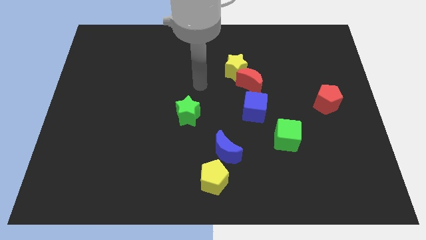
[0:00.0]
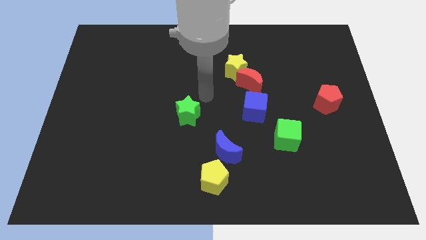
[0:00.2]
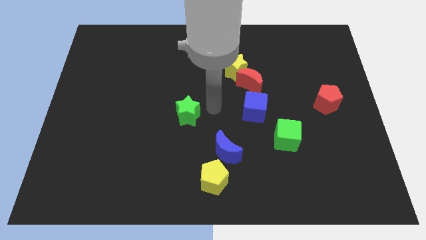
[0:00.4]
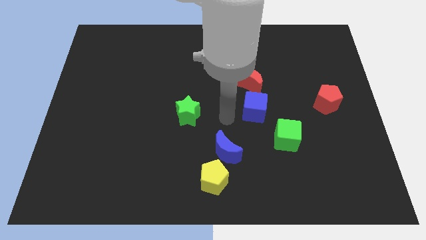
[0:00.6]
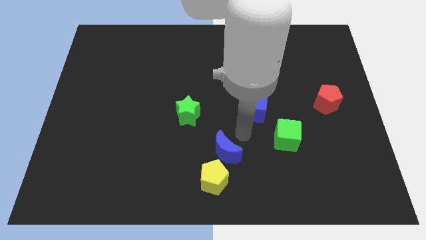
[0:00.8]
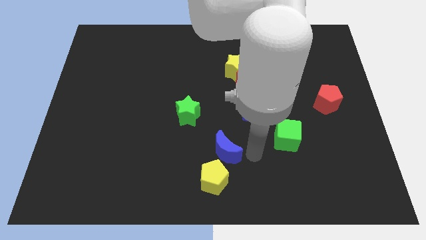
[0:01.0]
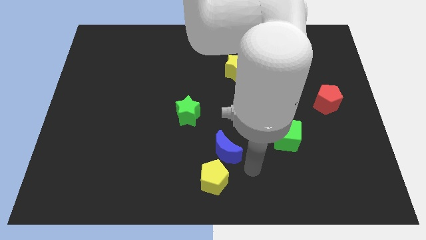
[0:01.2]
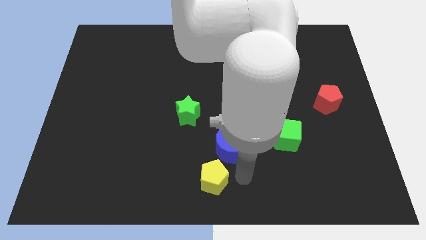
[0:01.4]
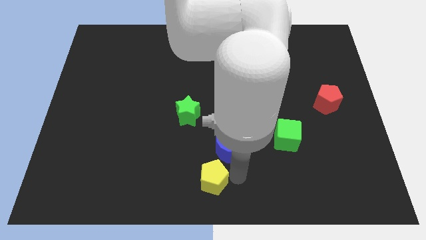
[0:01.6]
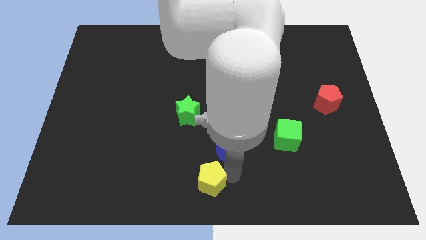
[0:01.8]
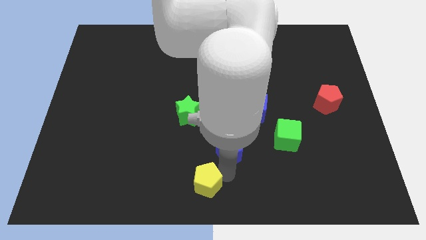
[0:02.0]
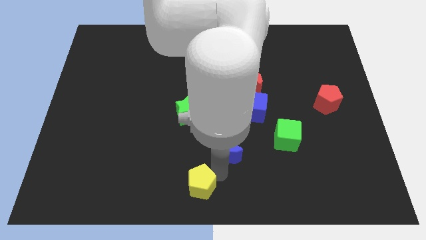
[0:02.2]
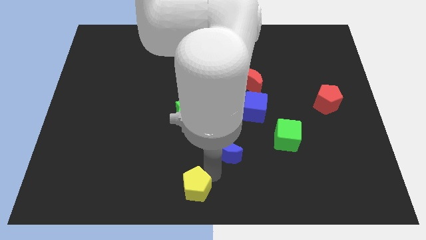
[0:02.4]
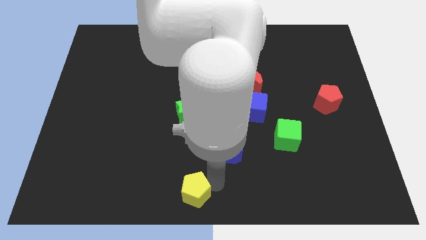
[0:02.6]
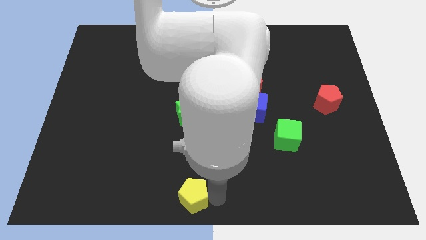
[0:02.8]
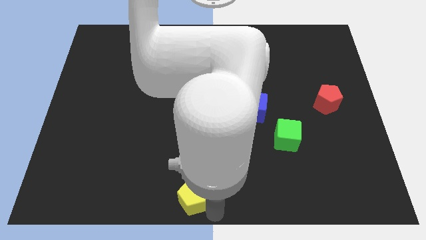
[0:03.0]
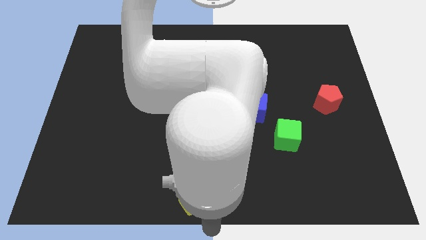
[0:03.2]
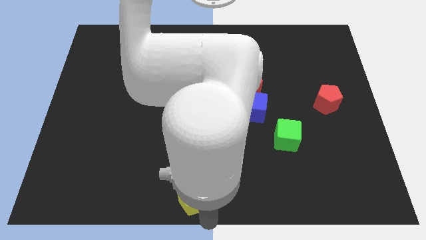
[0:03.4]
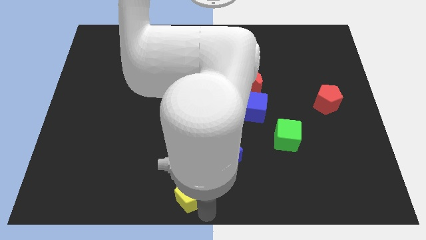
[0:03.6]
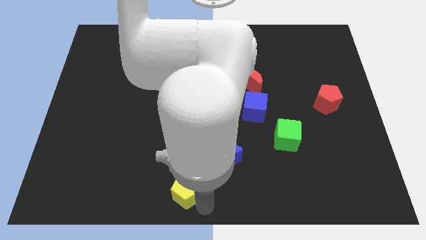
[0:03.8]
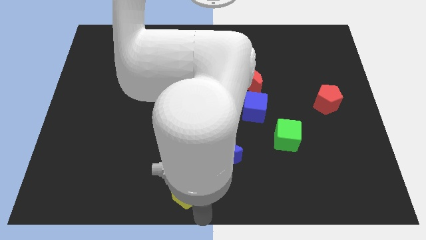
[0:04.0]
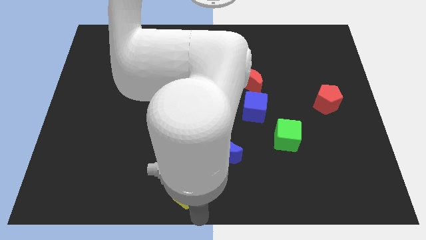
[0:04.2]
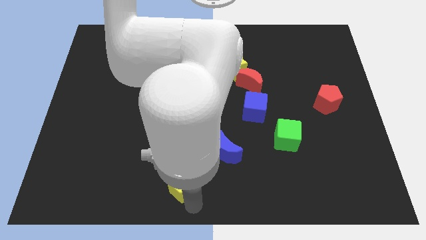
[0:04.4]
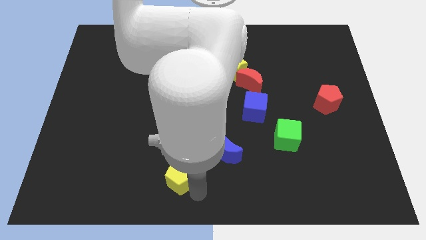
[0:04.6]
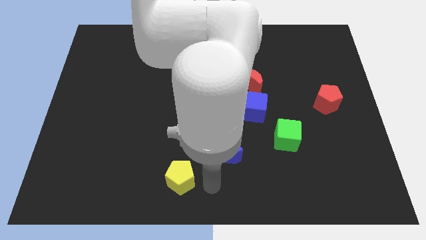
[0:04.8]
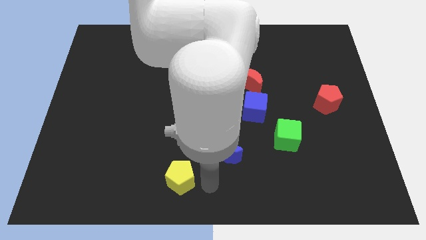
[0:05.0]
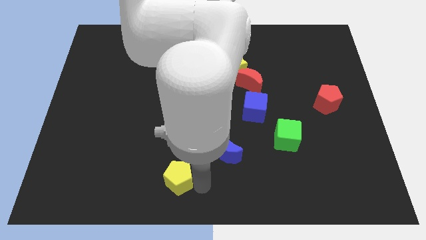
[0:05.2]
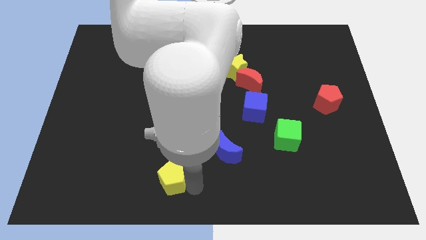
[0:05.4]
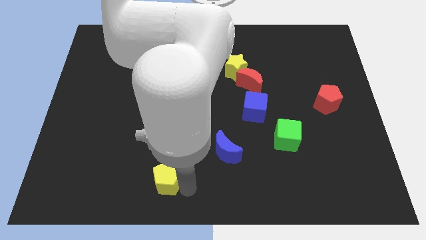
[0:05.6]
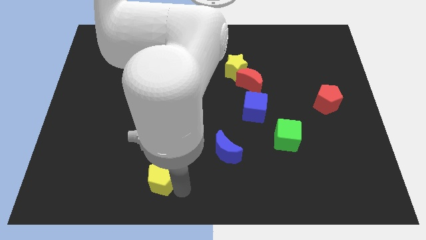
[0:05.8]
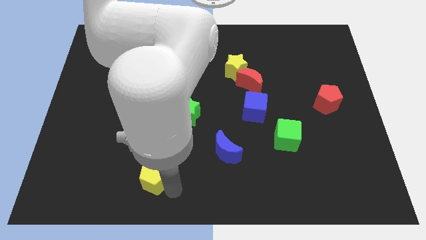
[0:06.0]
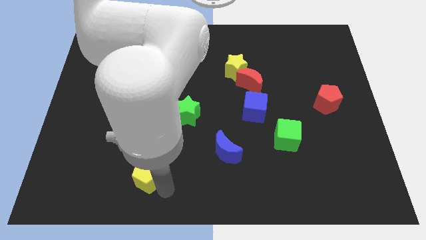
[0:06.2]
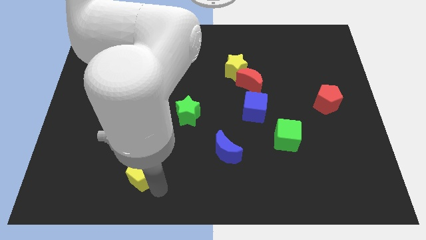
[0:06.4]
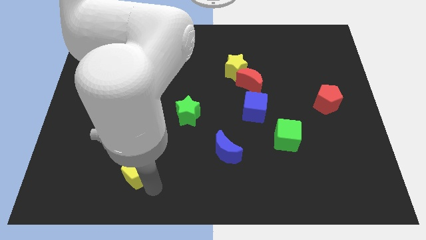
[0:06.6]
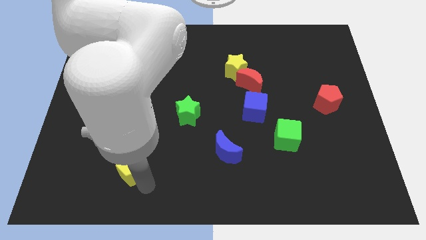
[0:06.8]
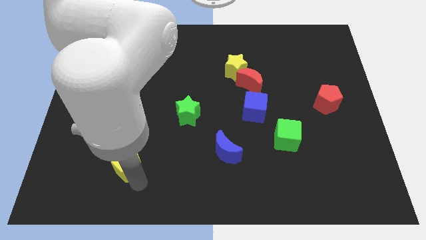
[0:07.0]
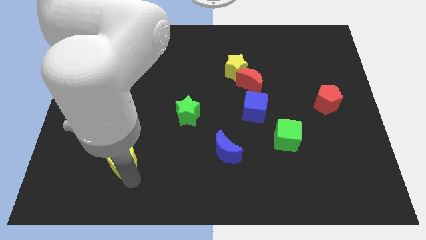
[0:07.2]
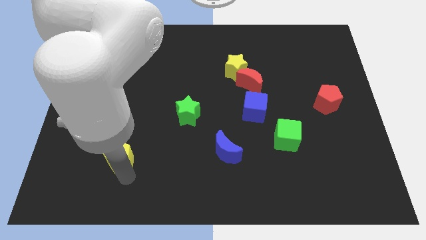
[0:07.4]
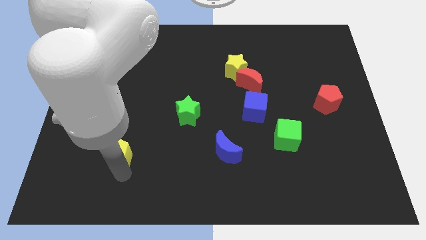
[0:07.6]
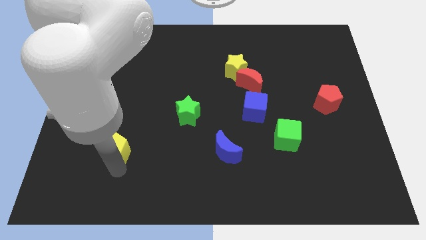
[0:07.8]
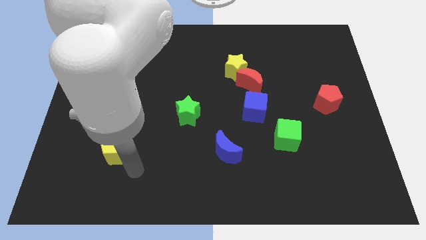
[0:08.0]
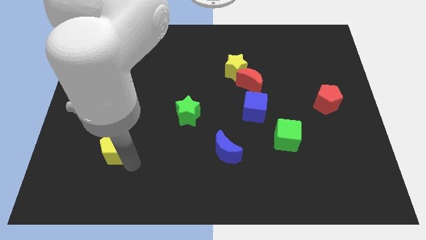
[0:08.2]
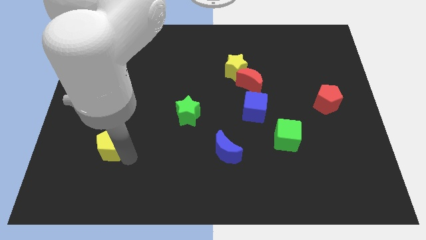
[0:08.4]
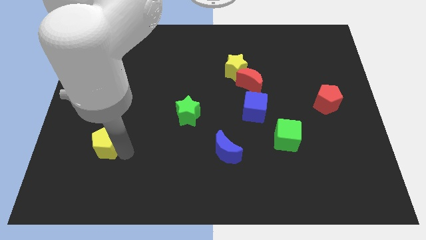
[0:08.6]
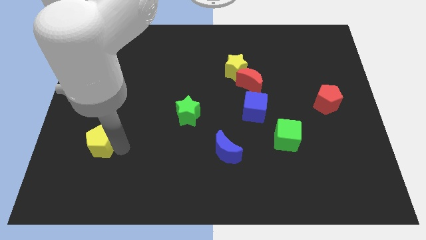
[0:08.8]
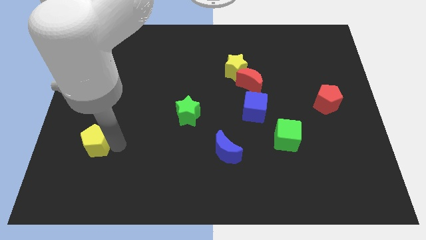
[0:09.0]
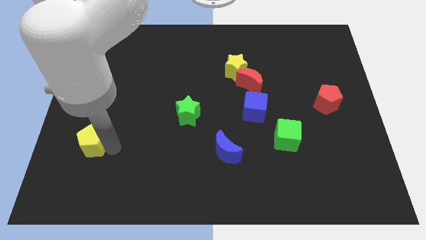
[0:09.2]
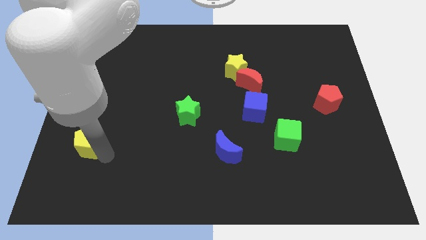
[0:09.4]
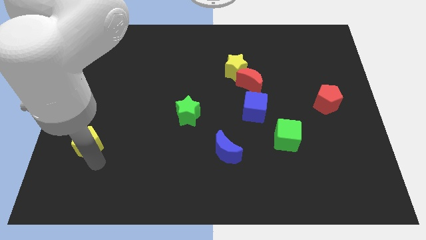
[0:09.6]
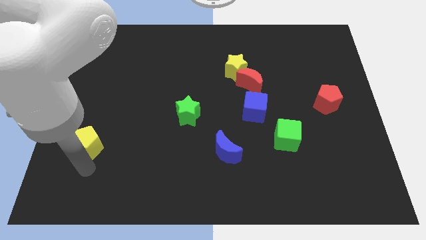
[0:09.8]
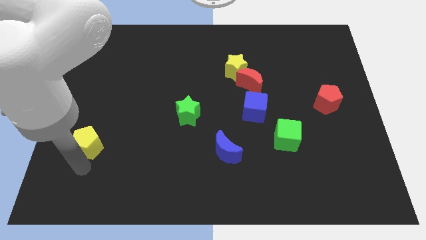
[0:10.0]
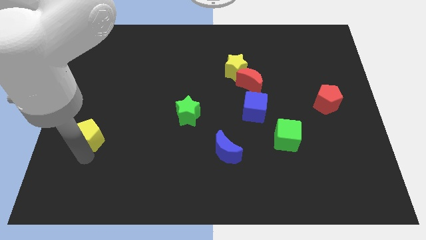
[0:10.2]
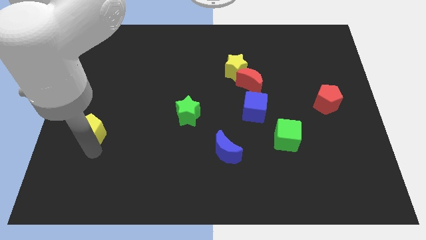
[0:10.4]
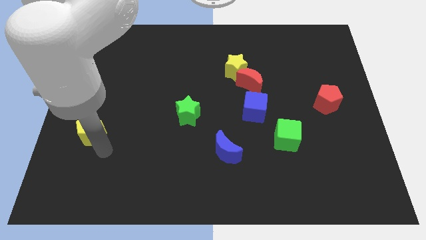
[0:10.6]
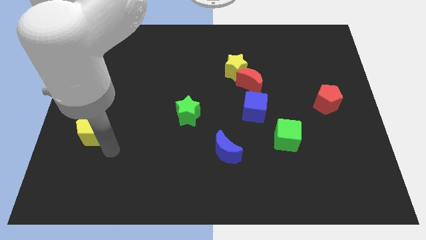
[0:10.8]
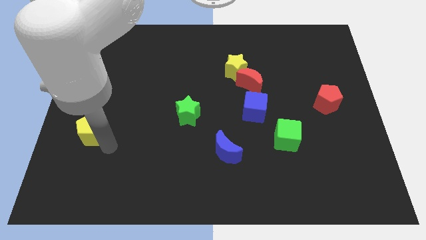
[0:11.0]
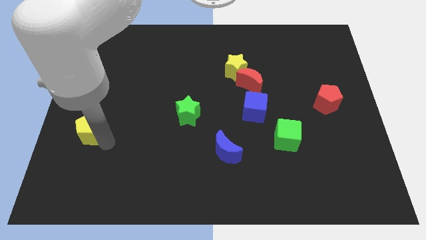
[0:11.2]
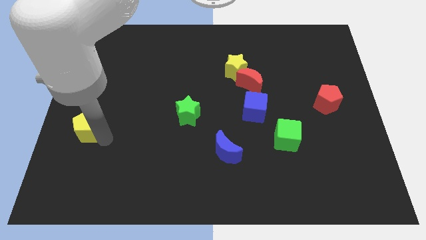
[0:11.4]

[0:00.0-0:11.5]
put the yellow pentagon to the left side

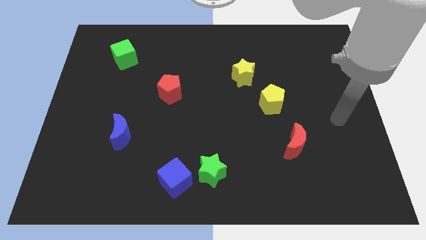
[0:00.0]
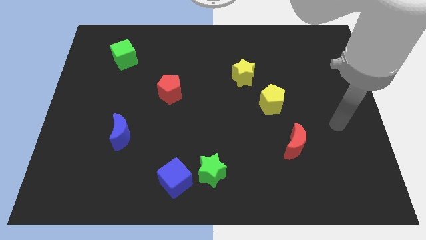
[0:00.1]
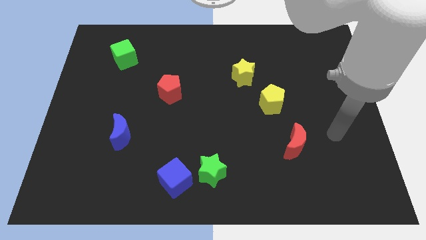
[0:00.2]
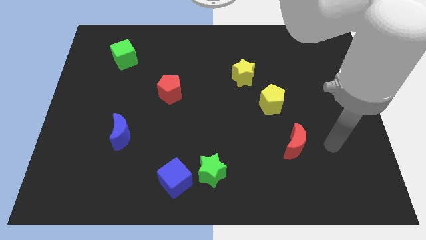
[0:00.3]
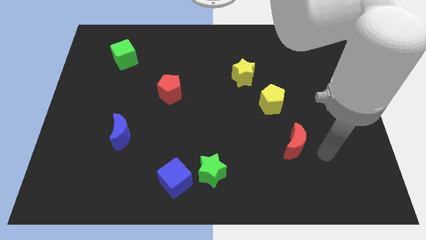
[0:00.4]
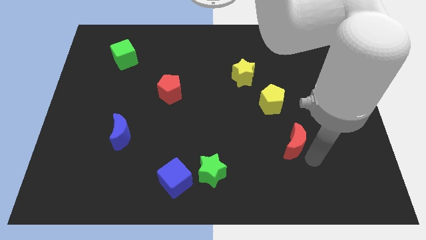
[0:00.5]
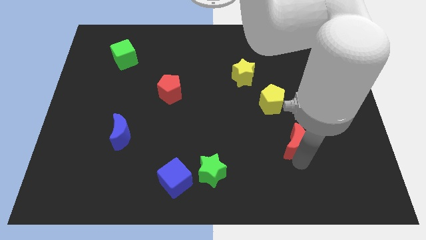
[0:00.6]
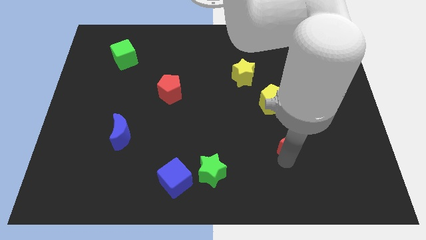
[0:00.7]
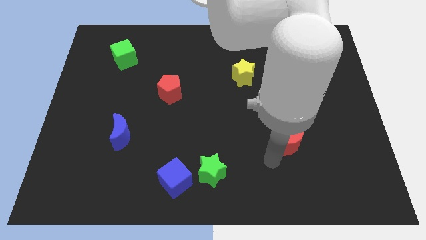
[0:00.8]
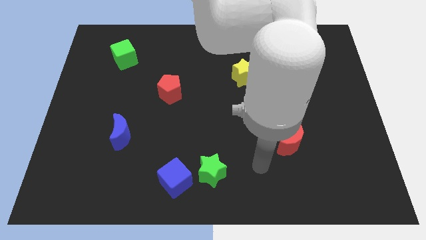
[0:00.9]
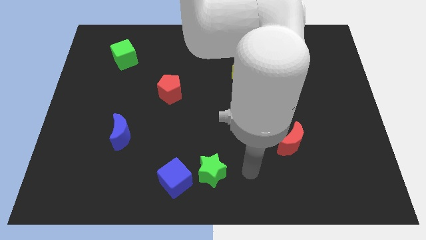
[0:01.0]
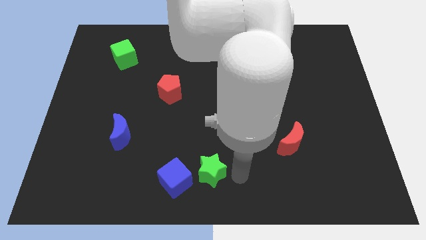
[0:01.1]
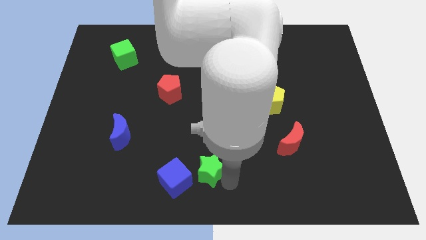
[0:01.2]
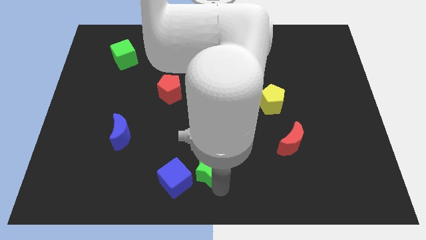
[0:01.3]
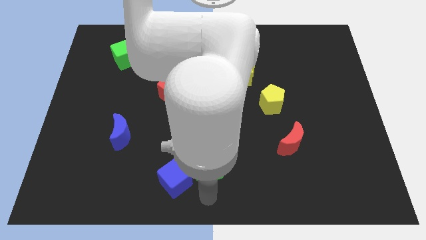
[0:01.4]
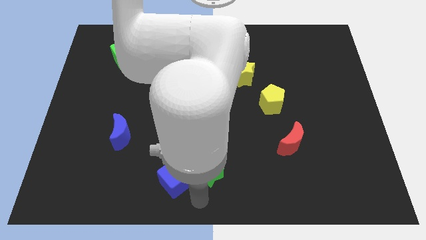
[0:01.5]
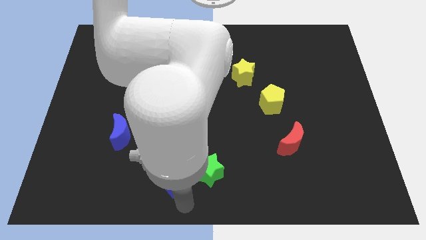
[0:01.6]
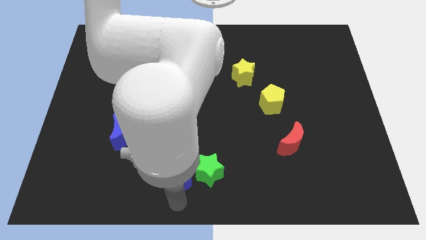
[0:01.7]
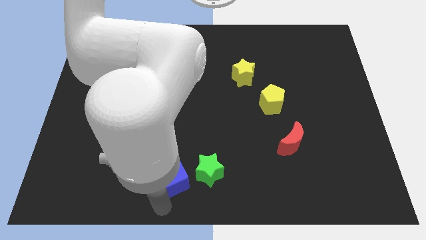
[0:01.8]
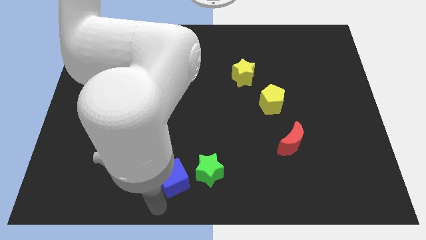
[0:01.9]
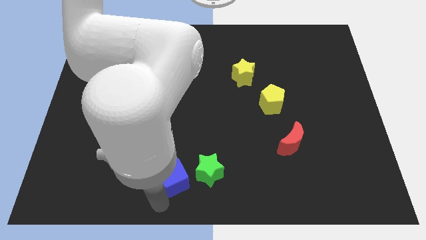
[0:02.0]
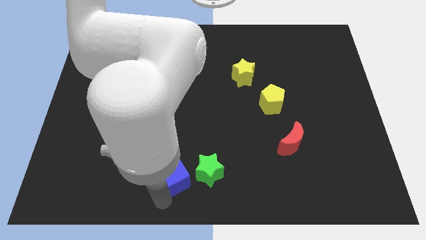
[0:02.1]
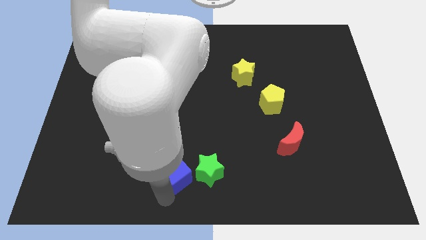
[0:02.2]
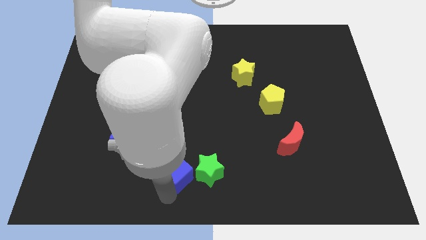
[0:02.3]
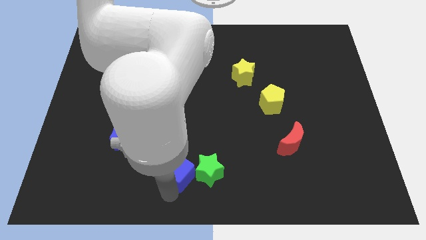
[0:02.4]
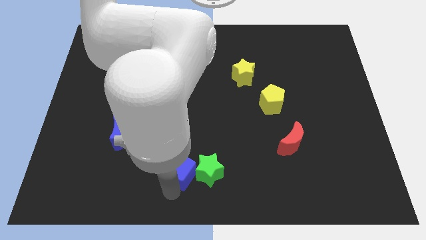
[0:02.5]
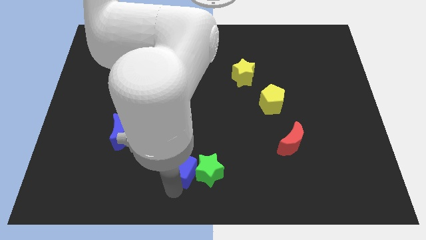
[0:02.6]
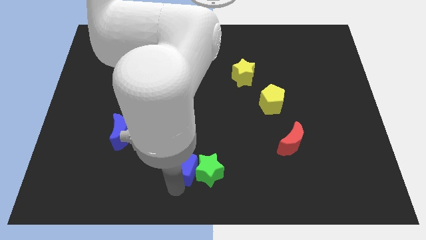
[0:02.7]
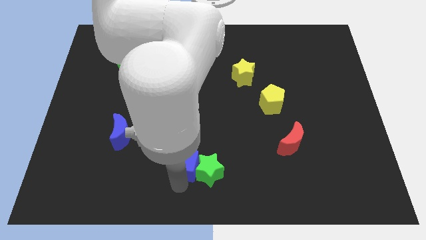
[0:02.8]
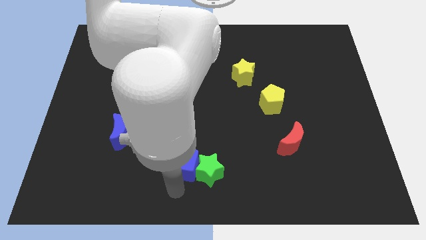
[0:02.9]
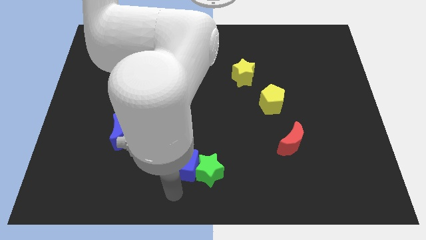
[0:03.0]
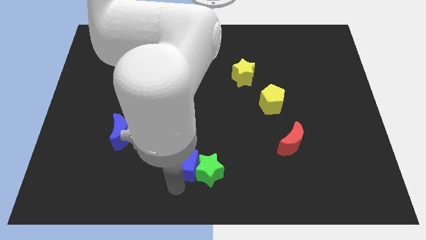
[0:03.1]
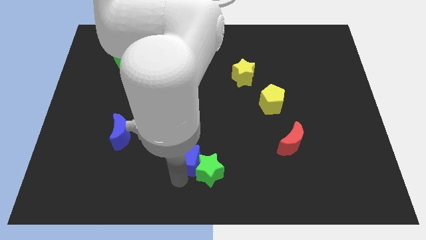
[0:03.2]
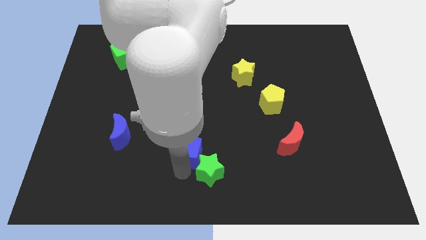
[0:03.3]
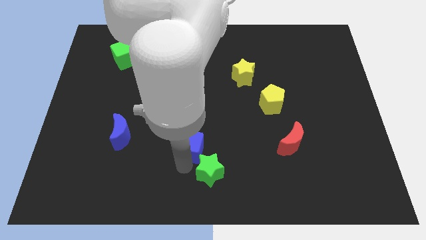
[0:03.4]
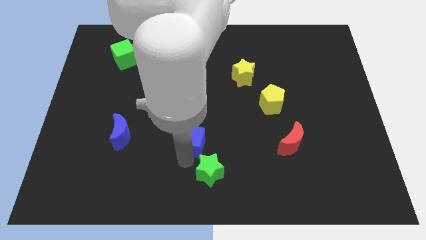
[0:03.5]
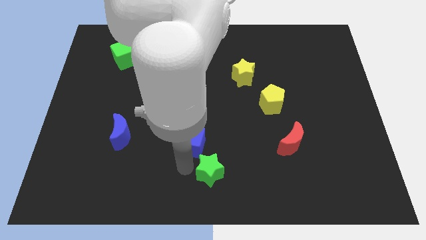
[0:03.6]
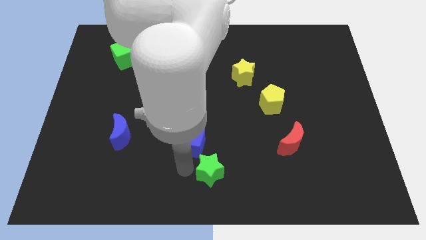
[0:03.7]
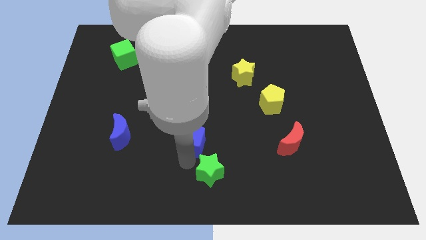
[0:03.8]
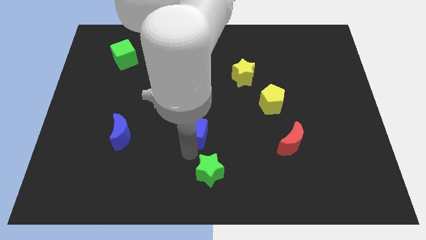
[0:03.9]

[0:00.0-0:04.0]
move the blue cube to the center
